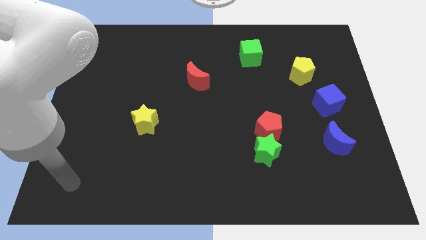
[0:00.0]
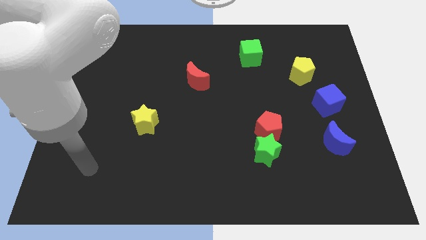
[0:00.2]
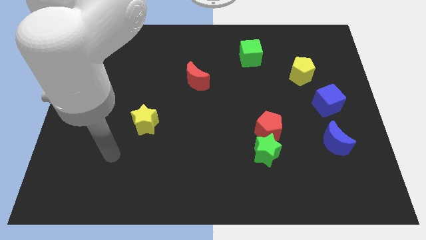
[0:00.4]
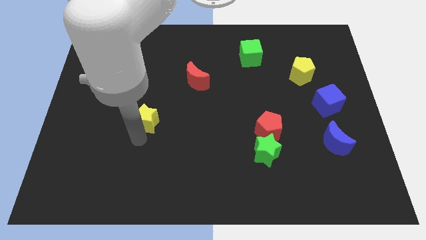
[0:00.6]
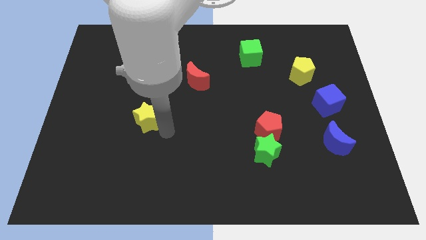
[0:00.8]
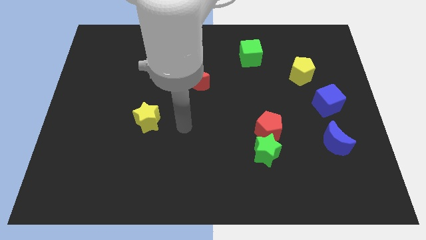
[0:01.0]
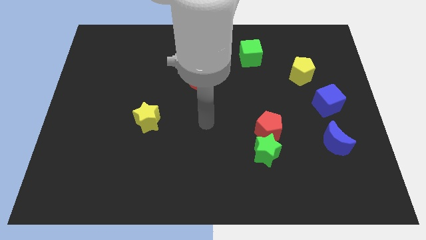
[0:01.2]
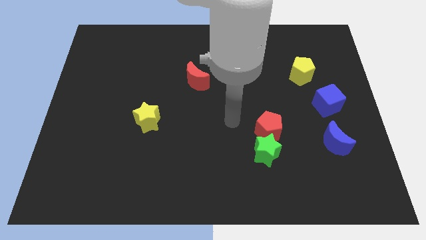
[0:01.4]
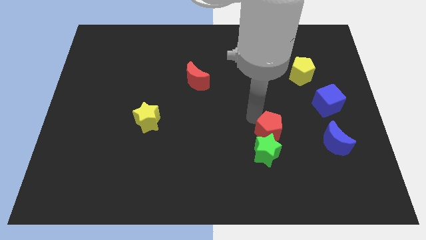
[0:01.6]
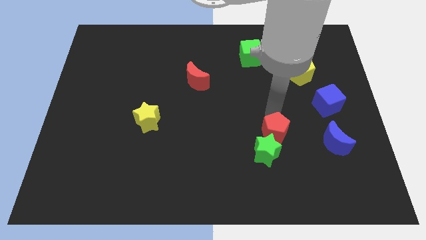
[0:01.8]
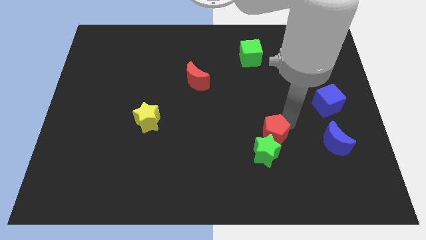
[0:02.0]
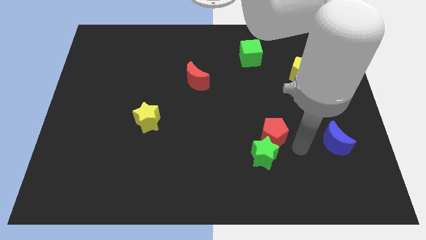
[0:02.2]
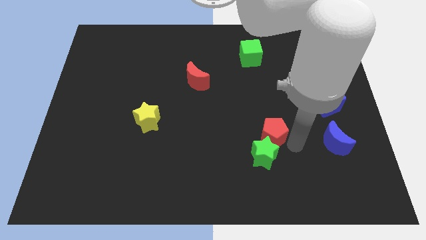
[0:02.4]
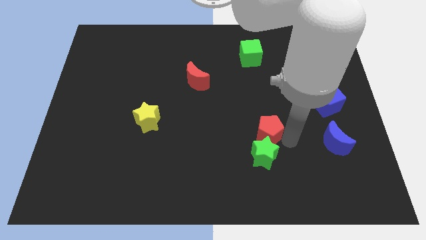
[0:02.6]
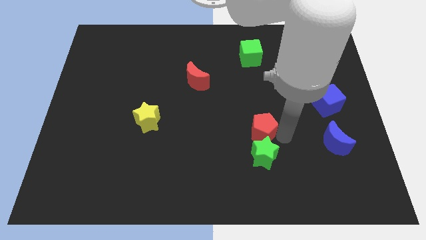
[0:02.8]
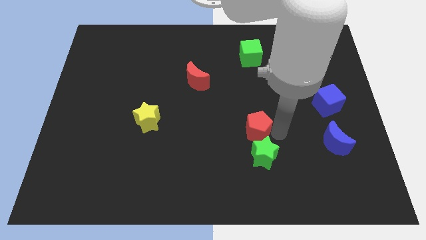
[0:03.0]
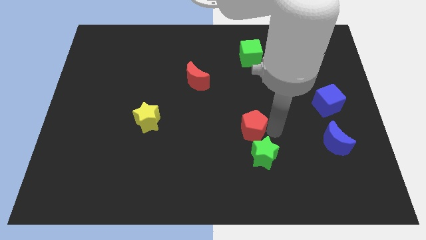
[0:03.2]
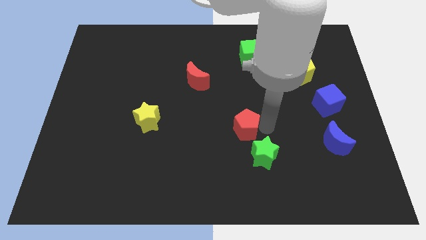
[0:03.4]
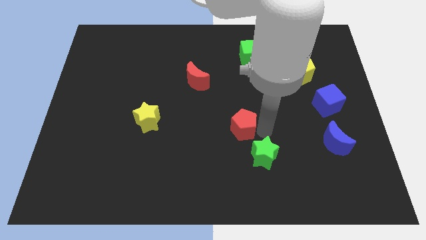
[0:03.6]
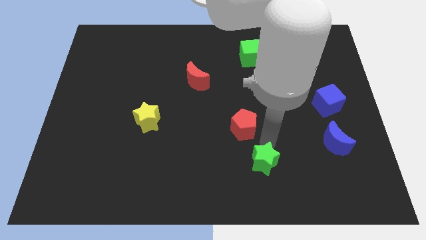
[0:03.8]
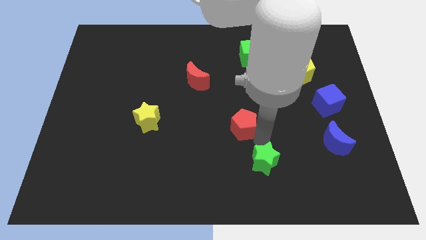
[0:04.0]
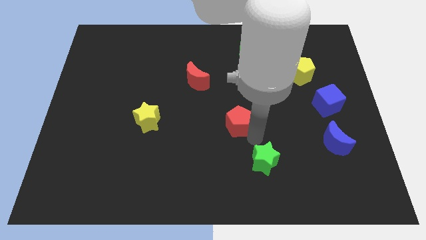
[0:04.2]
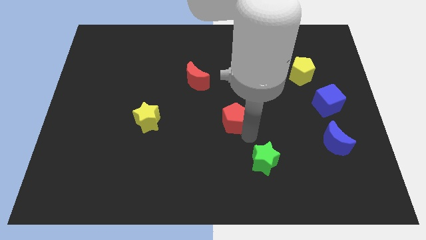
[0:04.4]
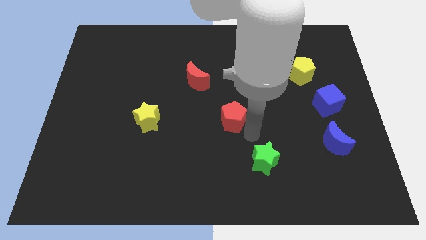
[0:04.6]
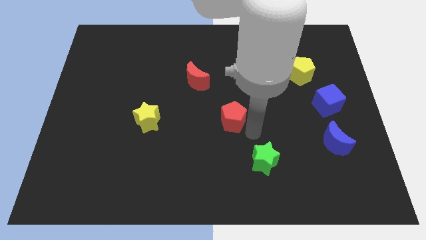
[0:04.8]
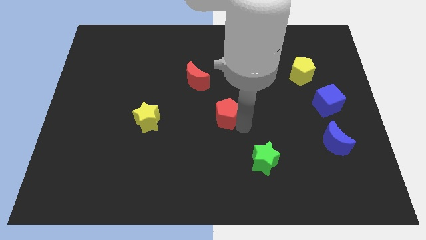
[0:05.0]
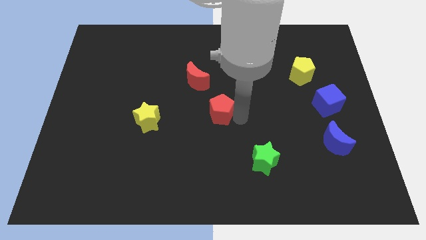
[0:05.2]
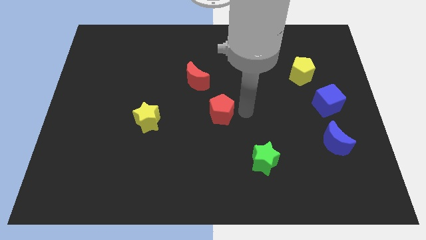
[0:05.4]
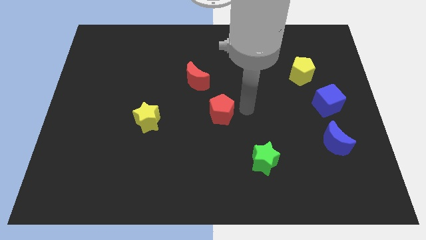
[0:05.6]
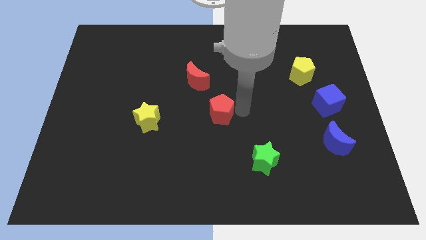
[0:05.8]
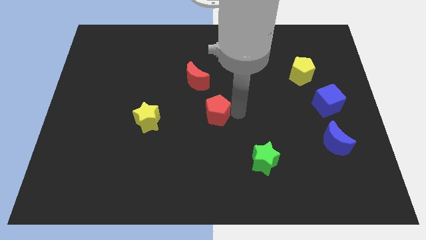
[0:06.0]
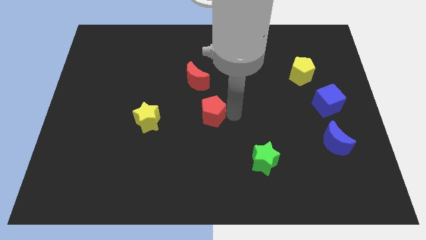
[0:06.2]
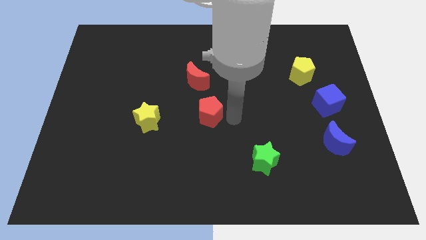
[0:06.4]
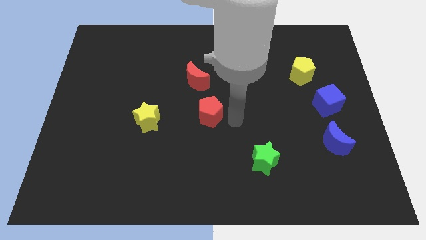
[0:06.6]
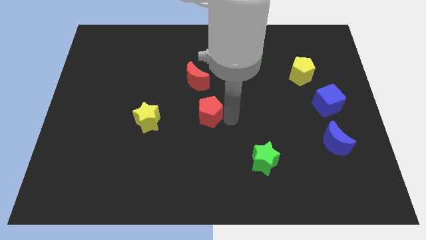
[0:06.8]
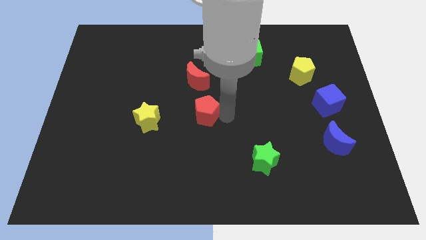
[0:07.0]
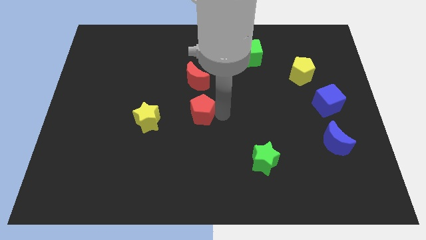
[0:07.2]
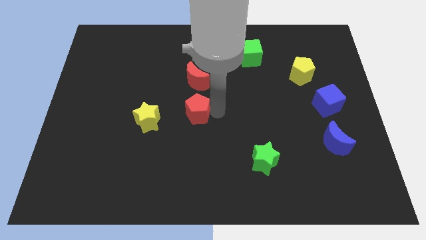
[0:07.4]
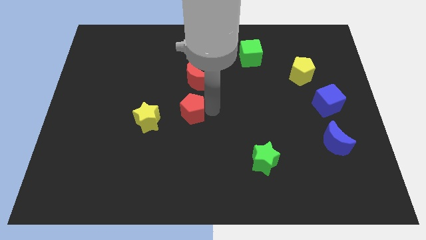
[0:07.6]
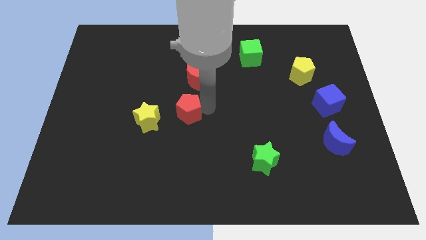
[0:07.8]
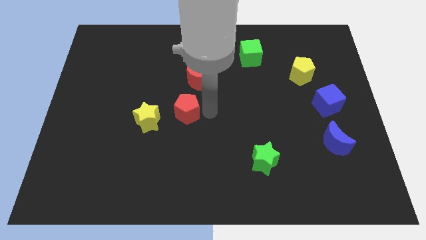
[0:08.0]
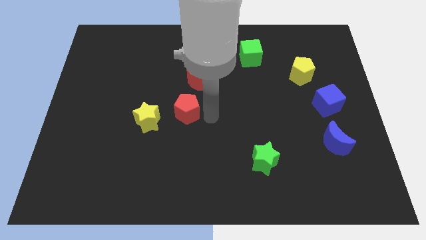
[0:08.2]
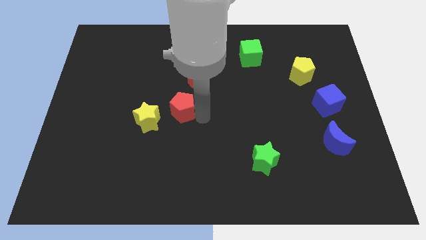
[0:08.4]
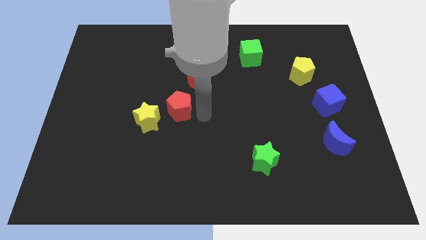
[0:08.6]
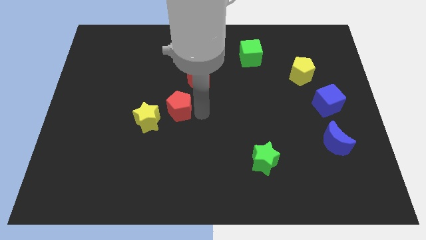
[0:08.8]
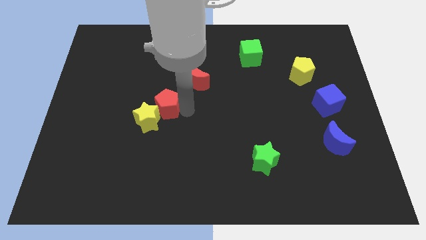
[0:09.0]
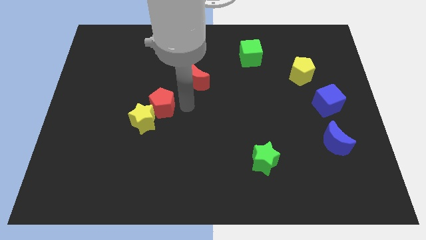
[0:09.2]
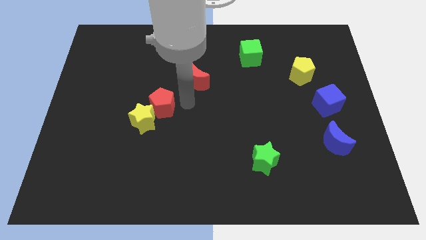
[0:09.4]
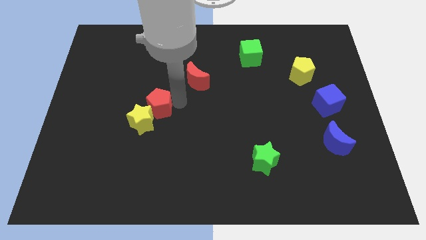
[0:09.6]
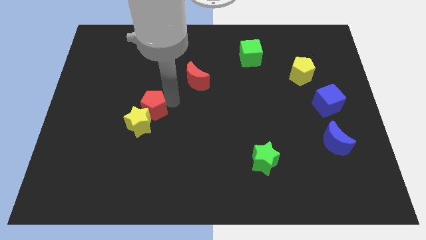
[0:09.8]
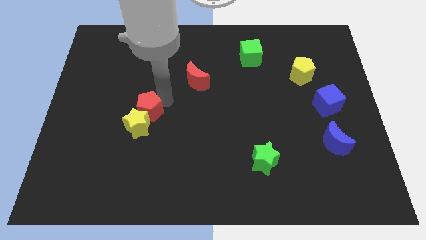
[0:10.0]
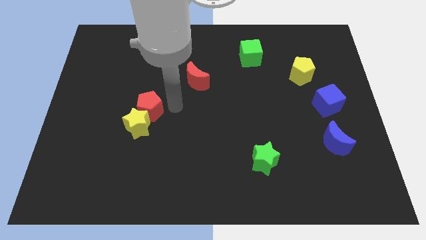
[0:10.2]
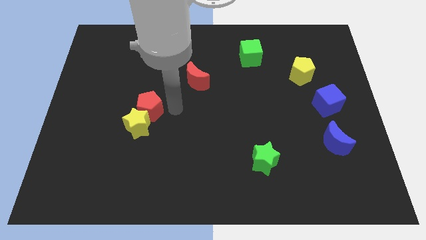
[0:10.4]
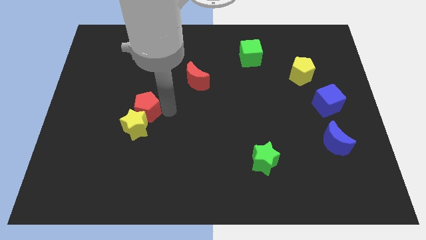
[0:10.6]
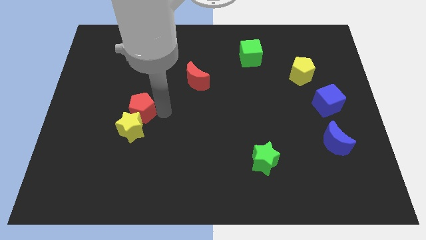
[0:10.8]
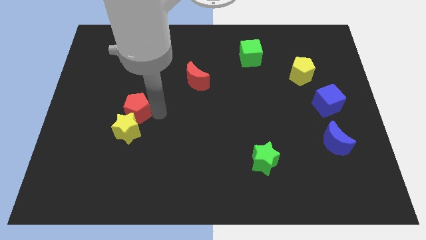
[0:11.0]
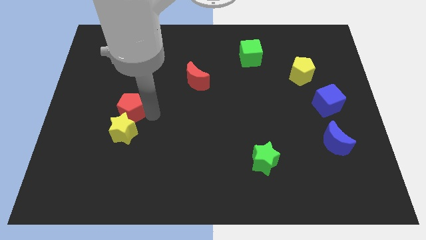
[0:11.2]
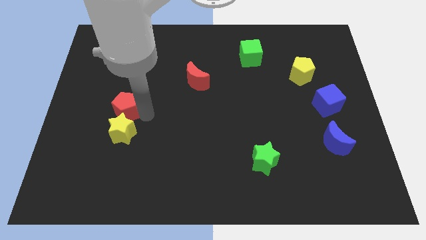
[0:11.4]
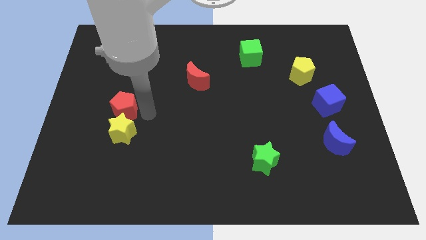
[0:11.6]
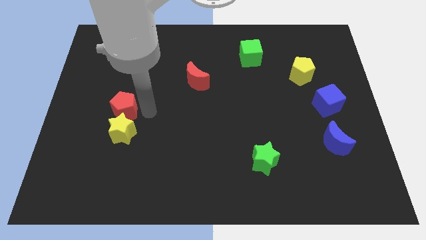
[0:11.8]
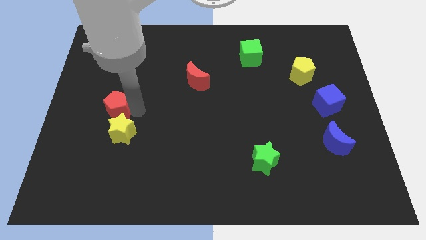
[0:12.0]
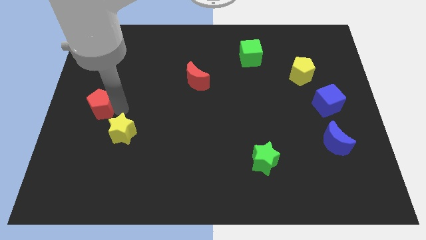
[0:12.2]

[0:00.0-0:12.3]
move the red pentagon to the left side of the board
